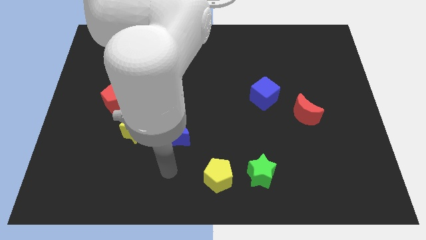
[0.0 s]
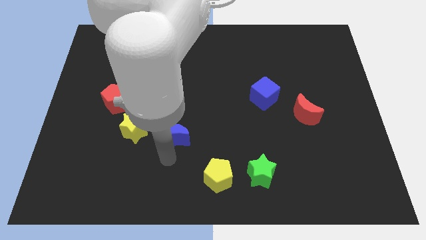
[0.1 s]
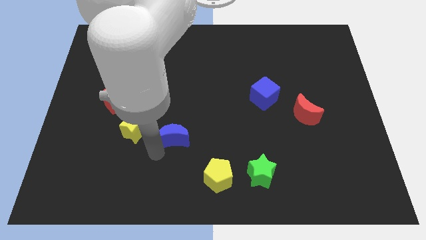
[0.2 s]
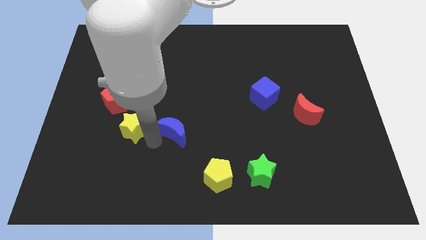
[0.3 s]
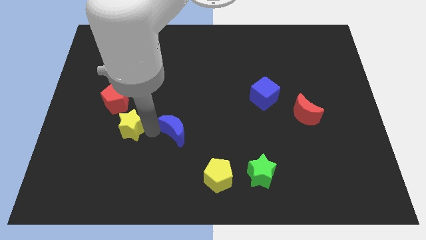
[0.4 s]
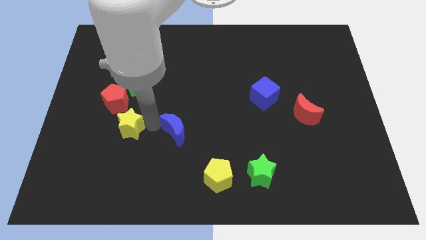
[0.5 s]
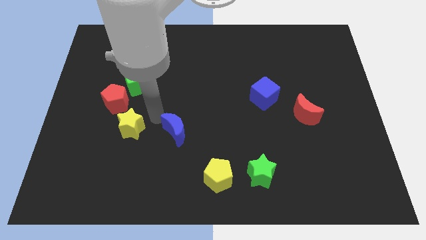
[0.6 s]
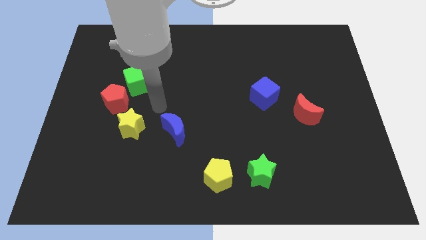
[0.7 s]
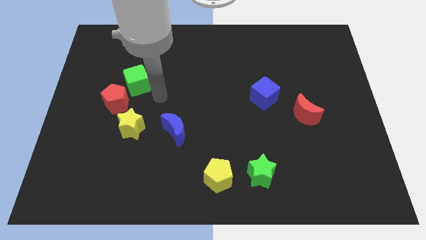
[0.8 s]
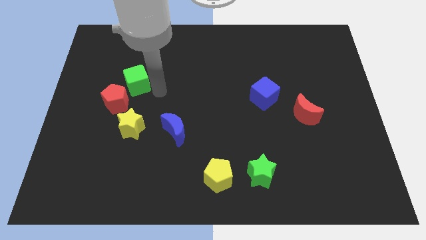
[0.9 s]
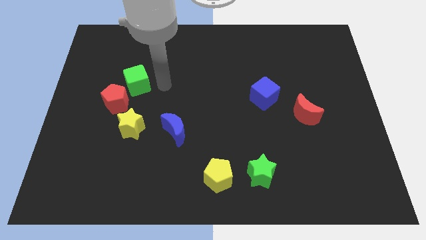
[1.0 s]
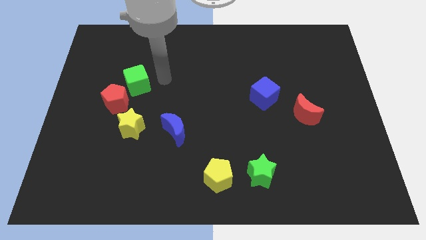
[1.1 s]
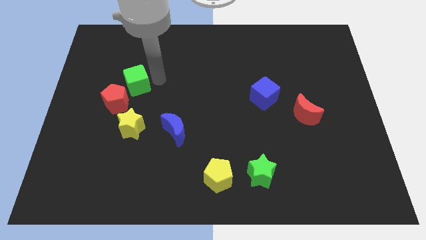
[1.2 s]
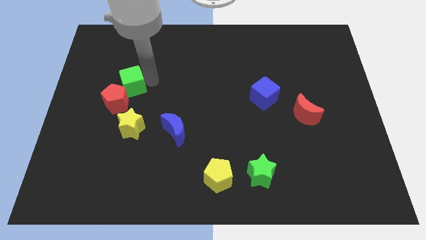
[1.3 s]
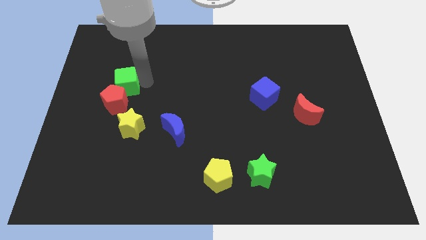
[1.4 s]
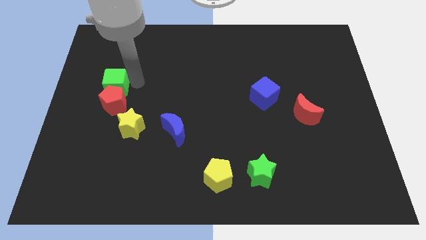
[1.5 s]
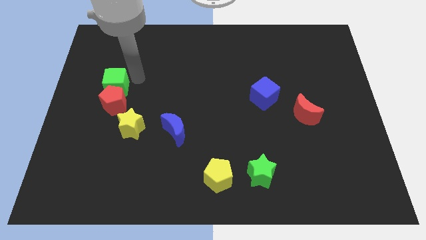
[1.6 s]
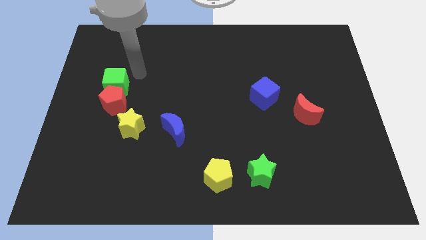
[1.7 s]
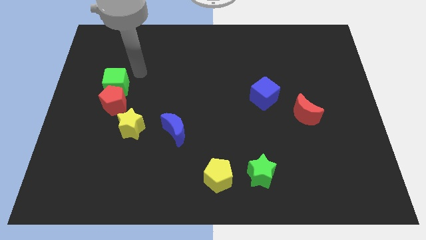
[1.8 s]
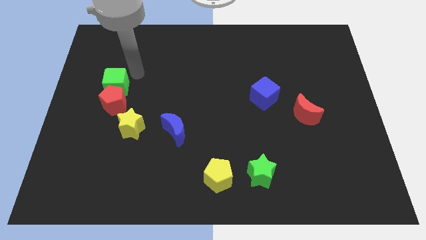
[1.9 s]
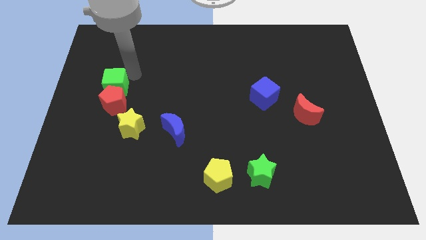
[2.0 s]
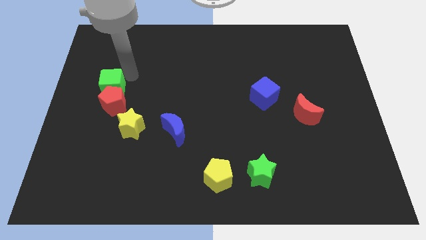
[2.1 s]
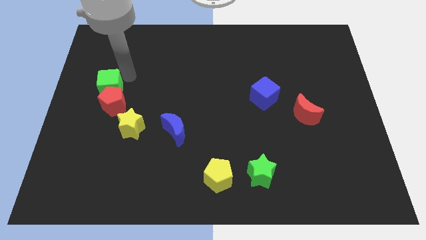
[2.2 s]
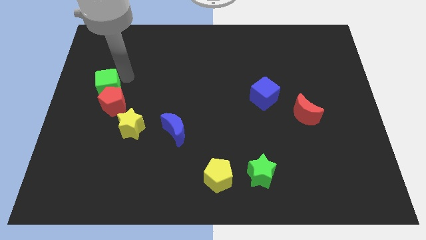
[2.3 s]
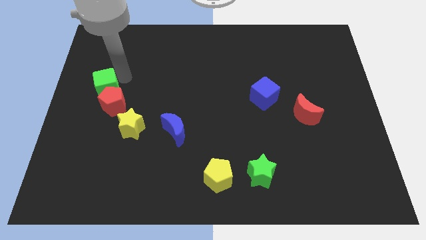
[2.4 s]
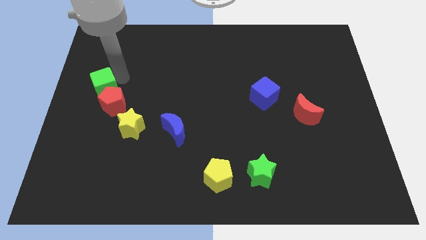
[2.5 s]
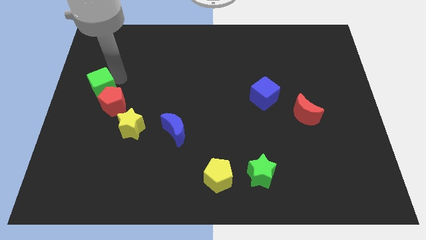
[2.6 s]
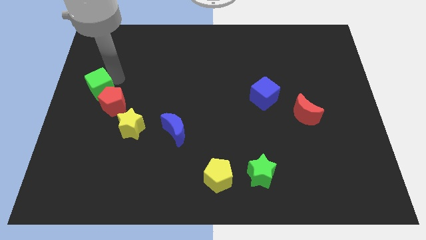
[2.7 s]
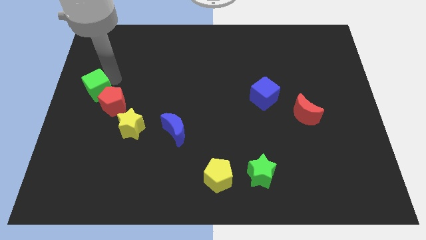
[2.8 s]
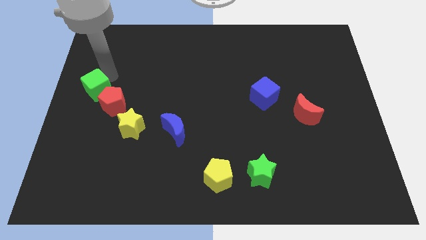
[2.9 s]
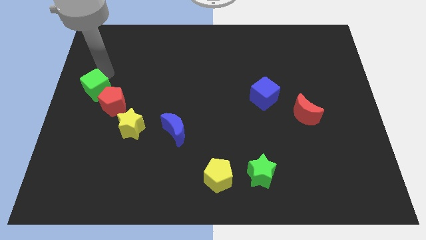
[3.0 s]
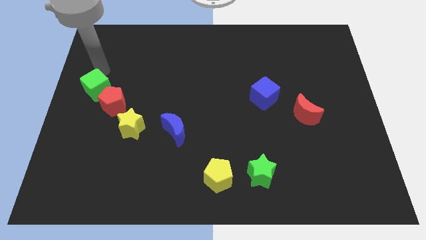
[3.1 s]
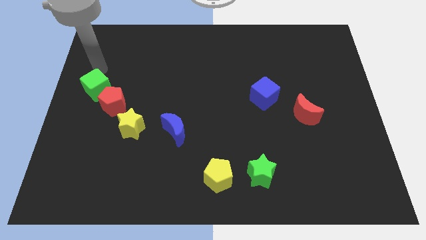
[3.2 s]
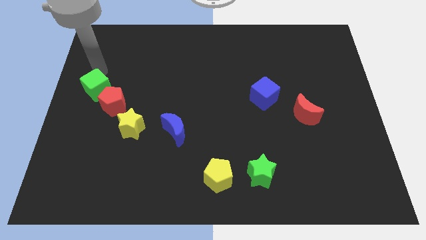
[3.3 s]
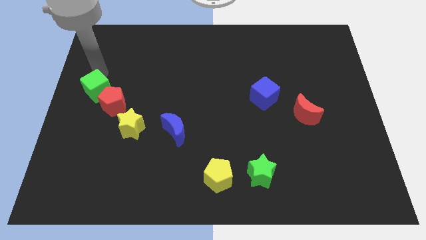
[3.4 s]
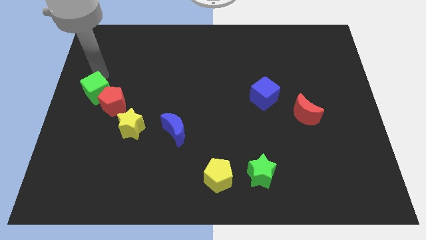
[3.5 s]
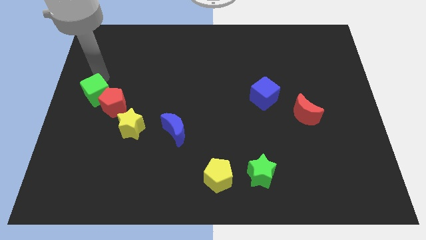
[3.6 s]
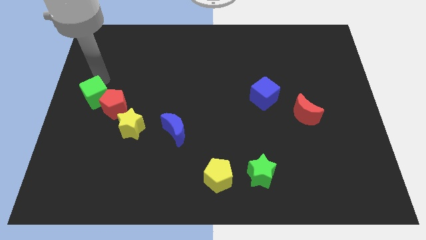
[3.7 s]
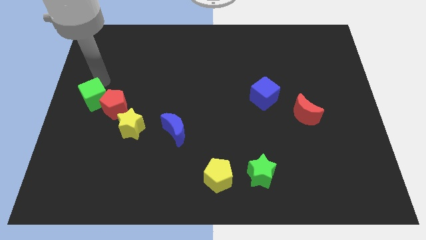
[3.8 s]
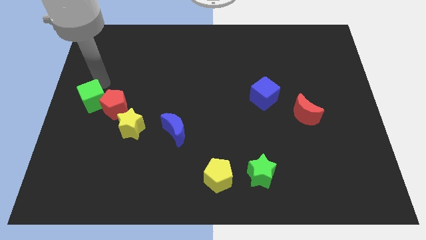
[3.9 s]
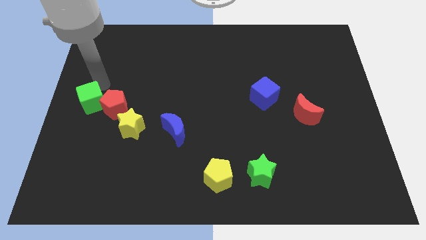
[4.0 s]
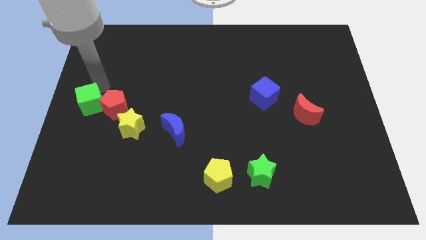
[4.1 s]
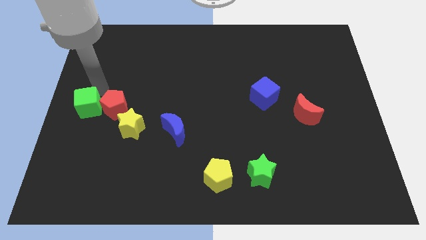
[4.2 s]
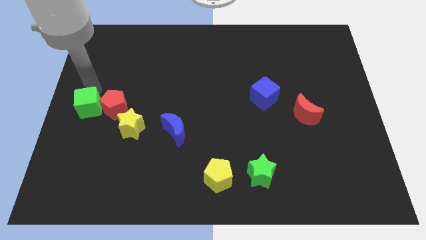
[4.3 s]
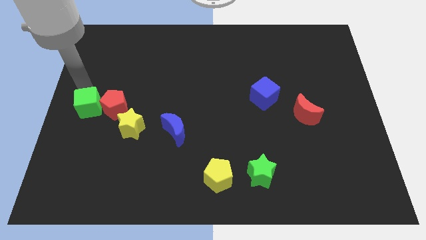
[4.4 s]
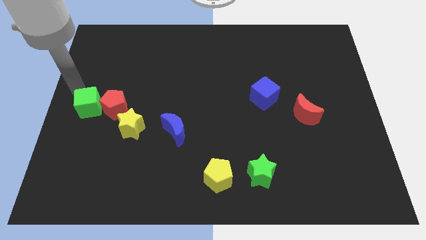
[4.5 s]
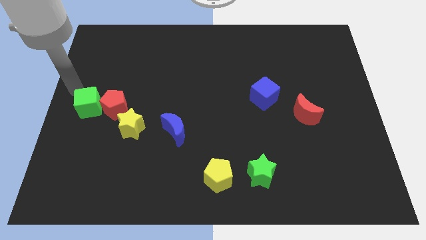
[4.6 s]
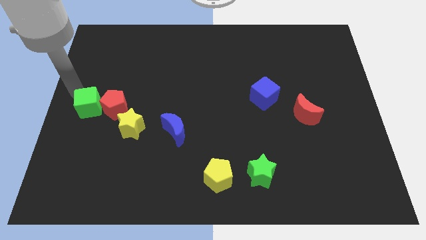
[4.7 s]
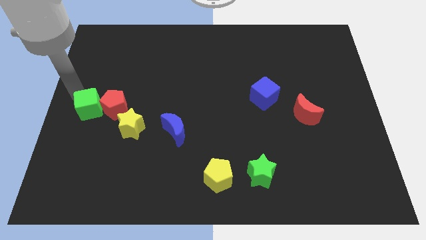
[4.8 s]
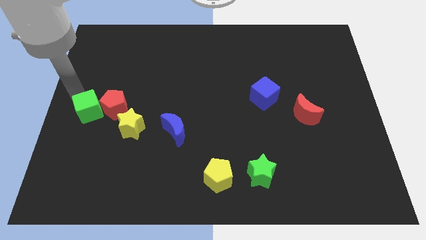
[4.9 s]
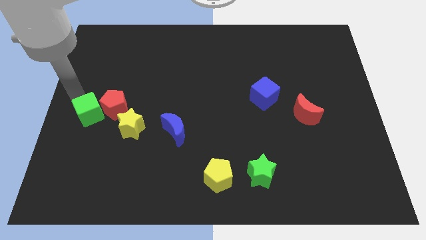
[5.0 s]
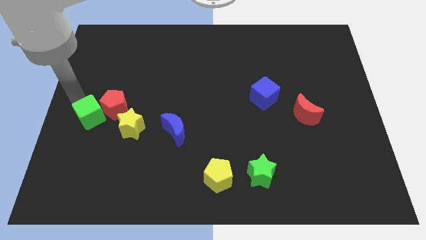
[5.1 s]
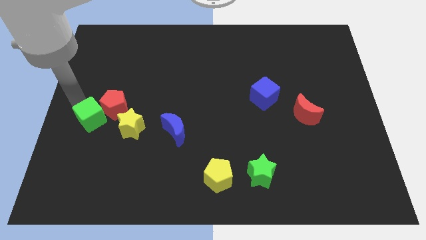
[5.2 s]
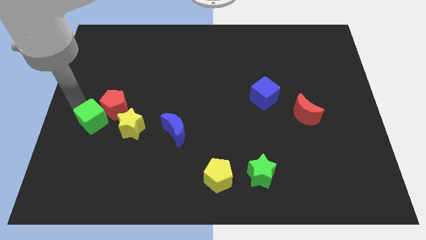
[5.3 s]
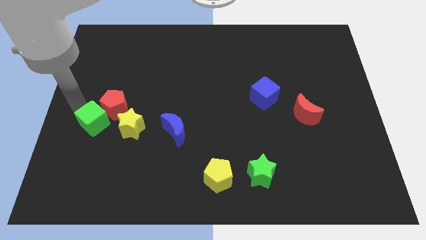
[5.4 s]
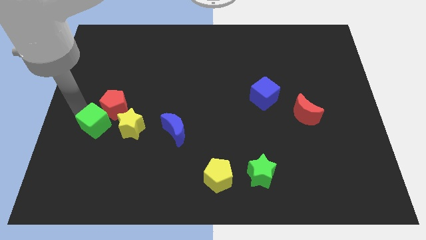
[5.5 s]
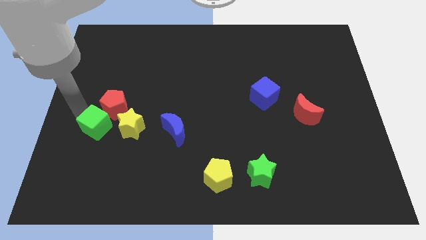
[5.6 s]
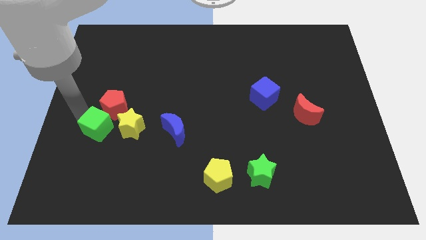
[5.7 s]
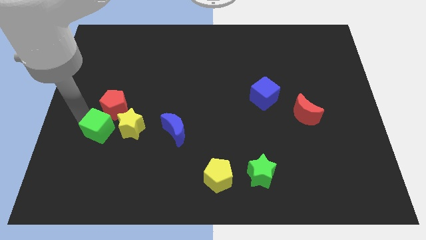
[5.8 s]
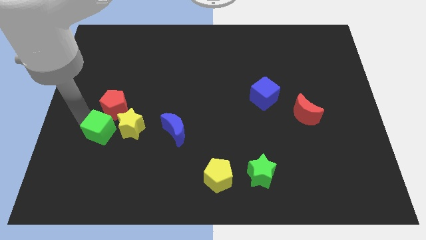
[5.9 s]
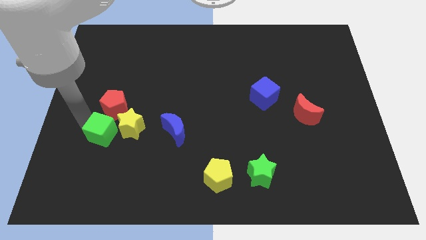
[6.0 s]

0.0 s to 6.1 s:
slide the green cube left of the blue moon

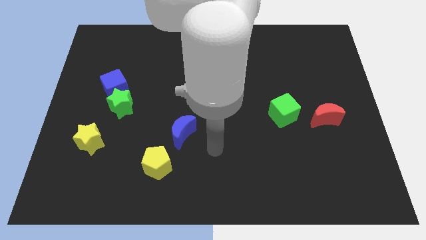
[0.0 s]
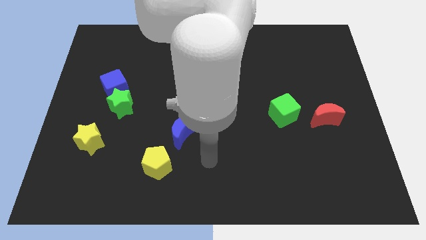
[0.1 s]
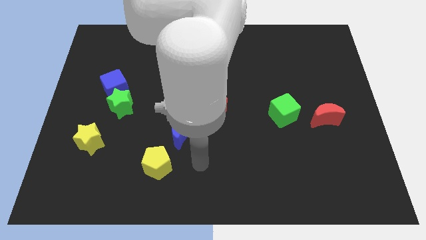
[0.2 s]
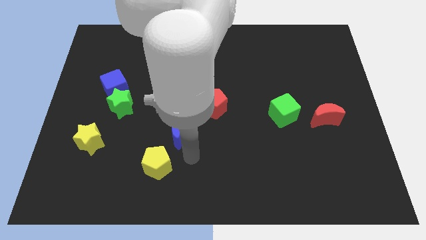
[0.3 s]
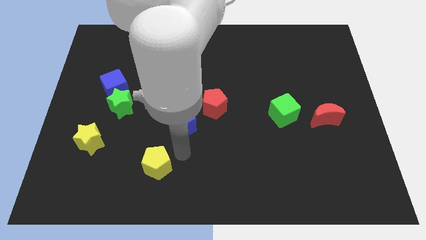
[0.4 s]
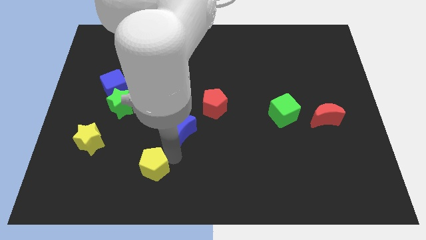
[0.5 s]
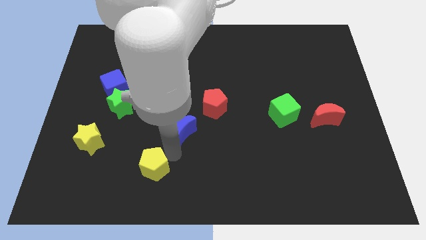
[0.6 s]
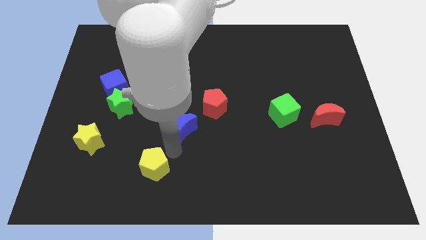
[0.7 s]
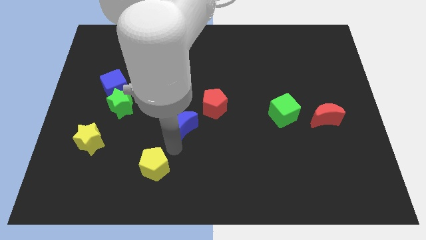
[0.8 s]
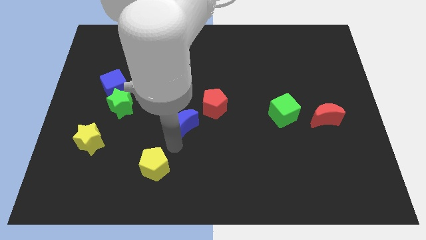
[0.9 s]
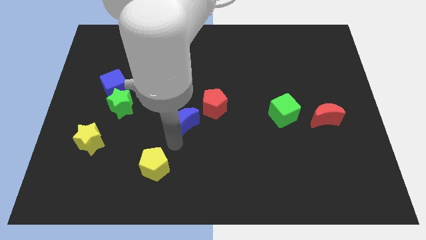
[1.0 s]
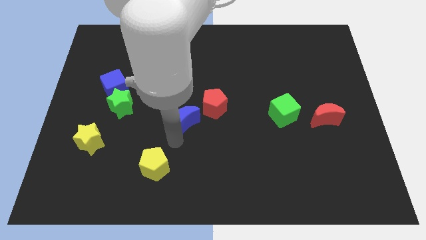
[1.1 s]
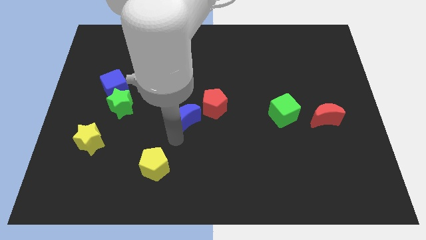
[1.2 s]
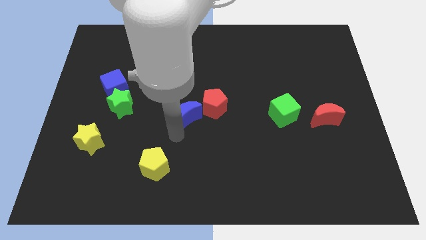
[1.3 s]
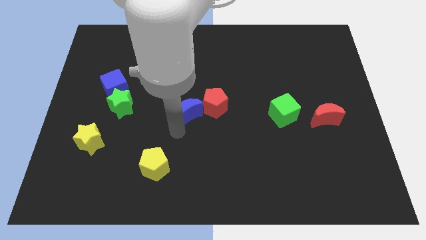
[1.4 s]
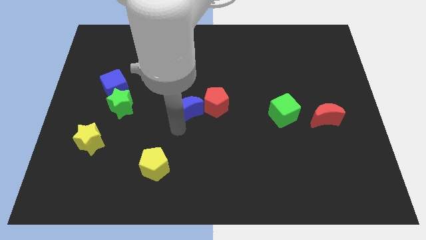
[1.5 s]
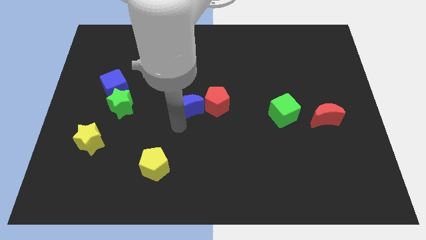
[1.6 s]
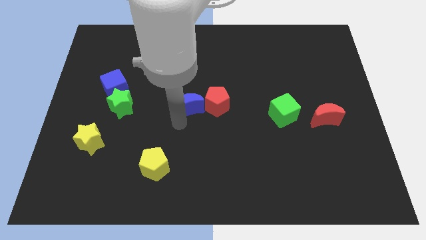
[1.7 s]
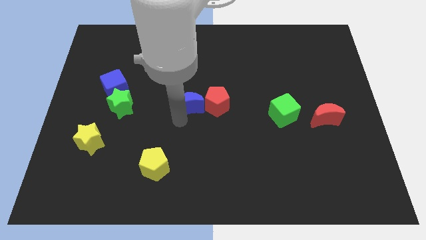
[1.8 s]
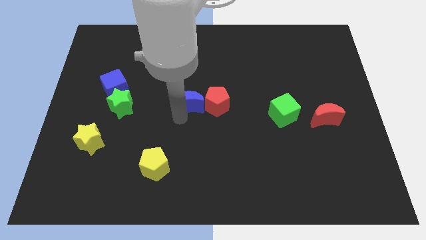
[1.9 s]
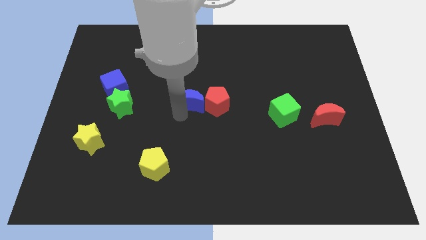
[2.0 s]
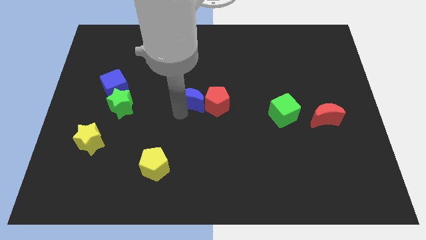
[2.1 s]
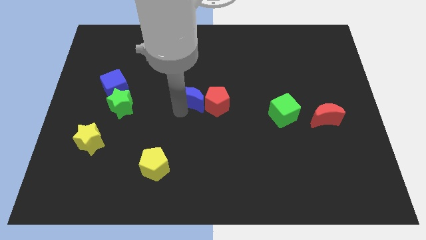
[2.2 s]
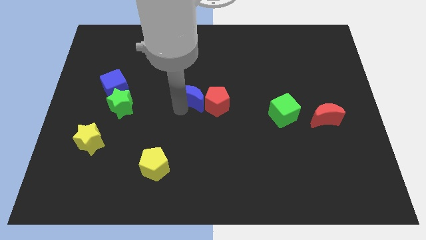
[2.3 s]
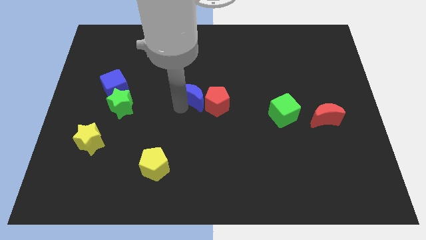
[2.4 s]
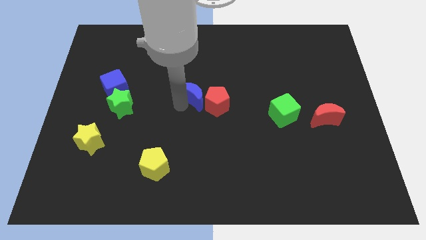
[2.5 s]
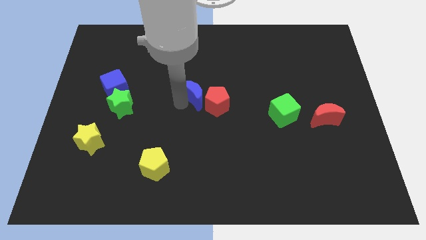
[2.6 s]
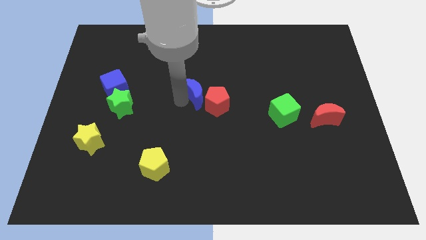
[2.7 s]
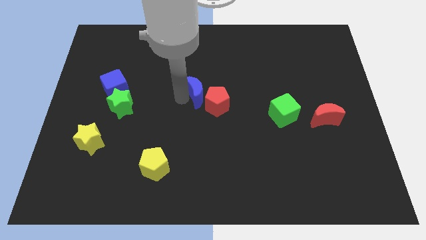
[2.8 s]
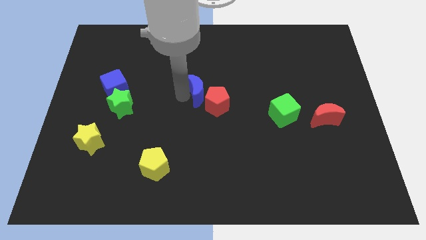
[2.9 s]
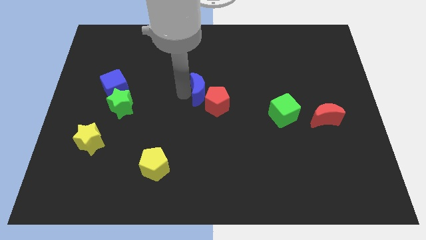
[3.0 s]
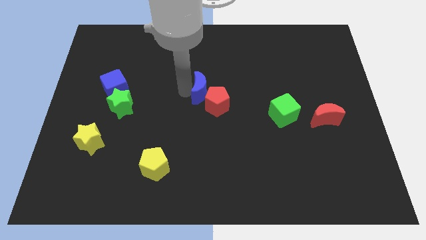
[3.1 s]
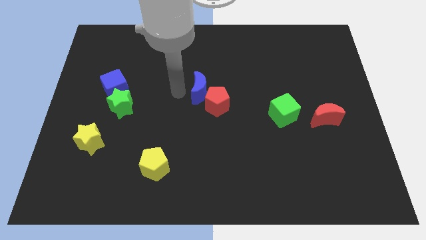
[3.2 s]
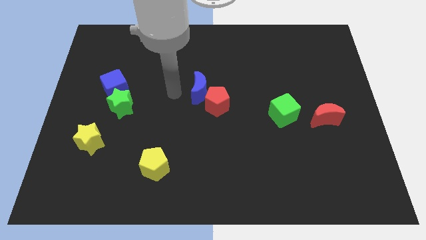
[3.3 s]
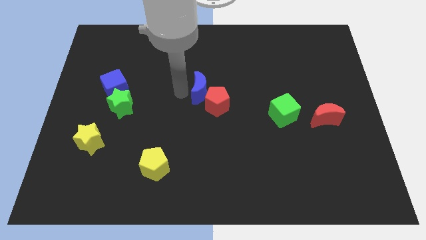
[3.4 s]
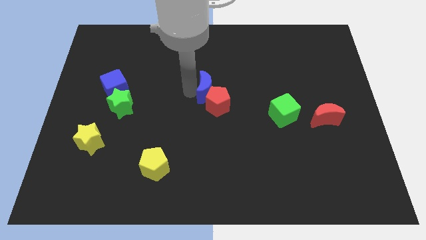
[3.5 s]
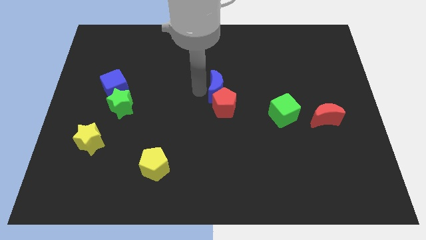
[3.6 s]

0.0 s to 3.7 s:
move the blue moon to the top right of the red pentagon
